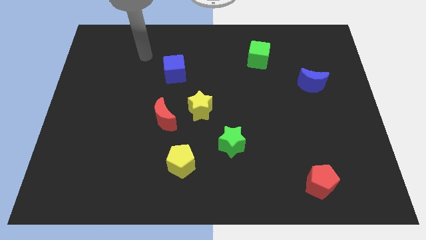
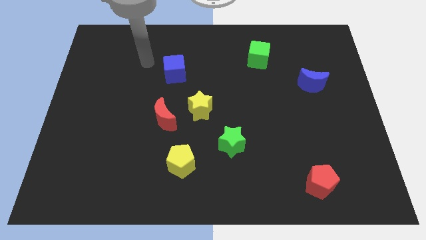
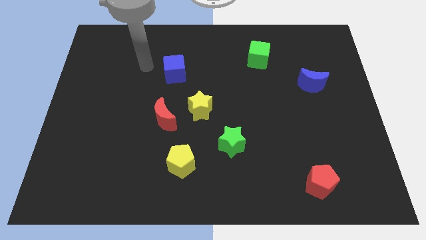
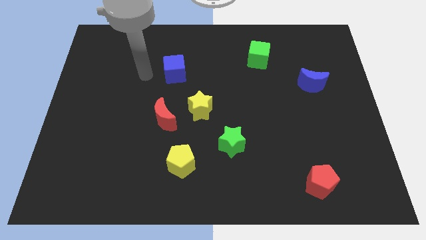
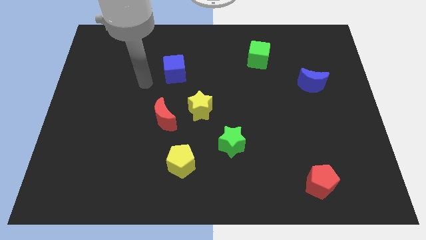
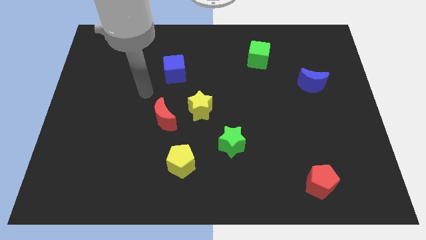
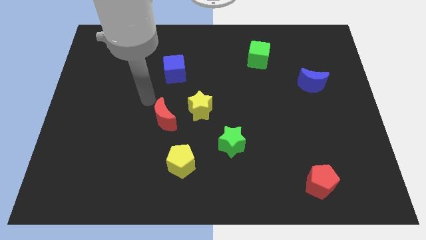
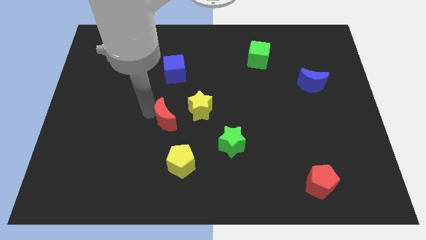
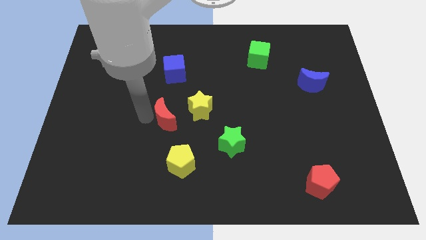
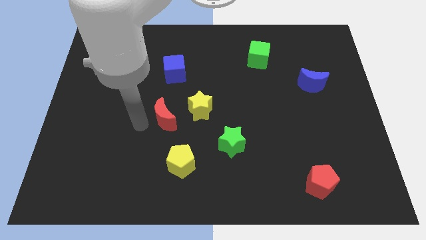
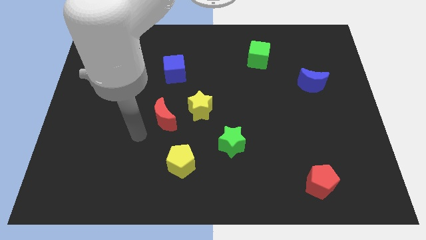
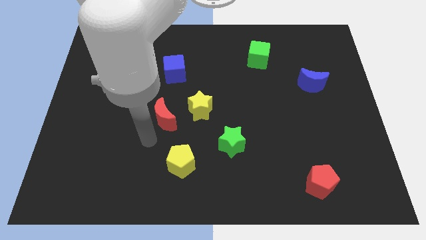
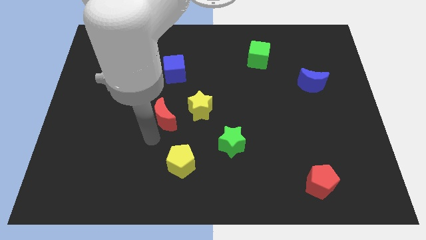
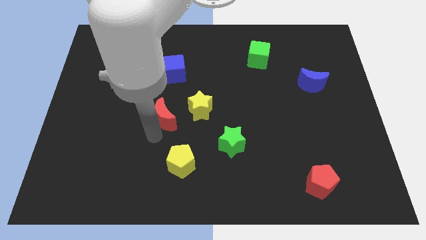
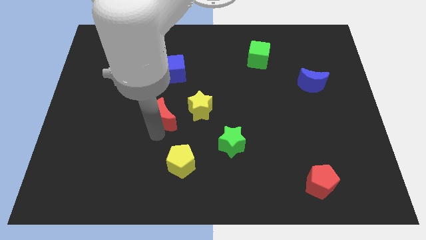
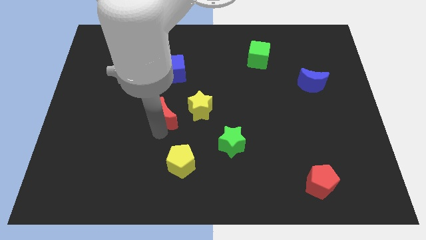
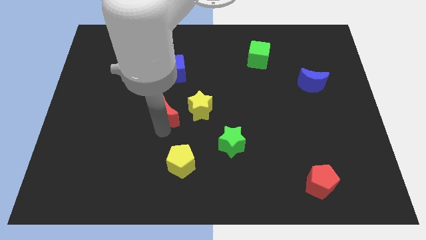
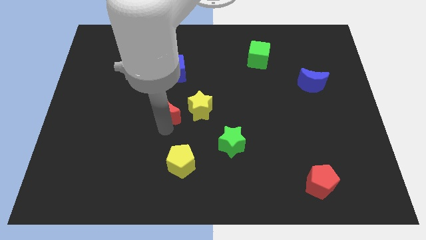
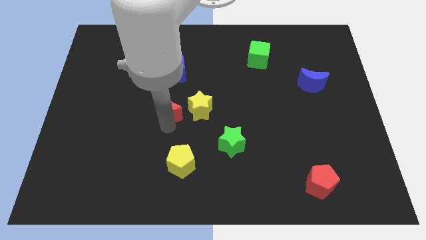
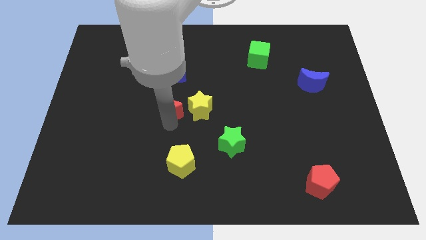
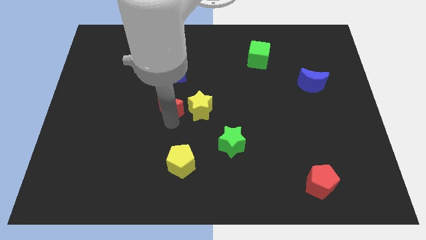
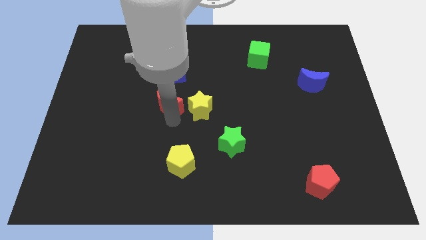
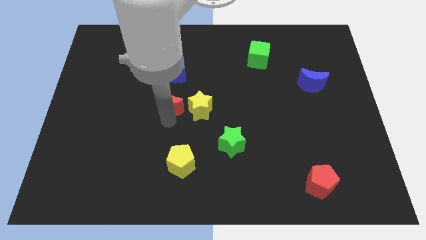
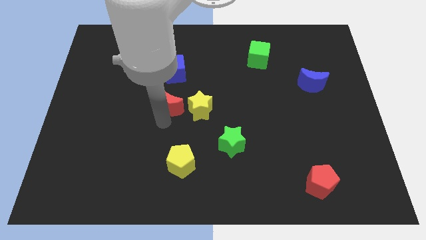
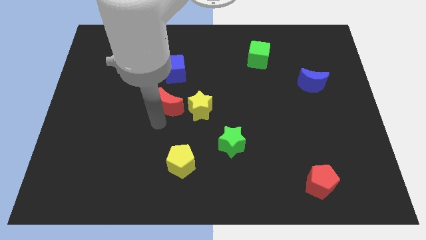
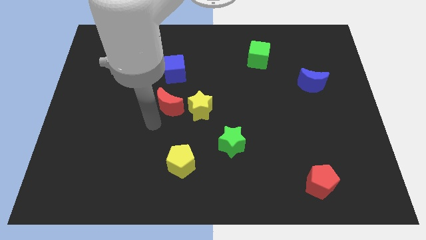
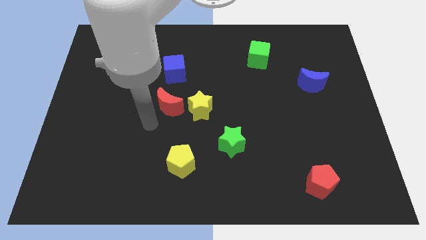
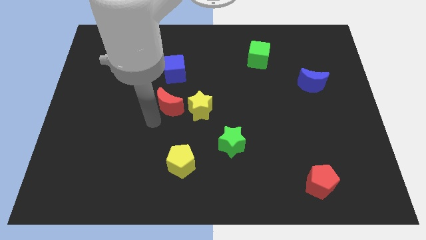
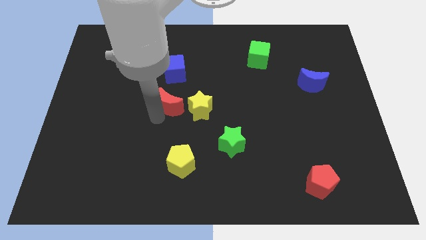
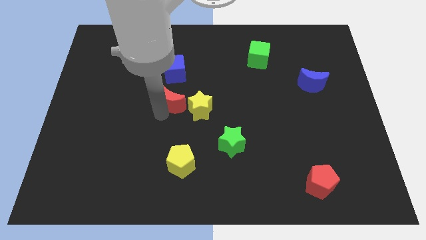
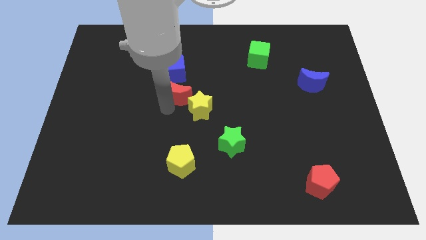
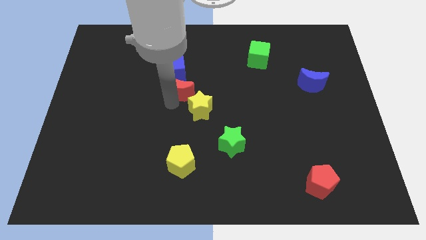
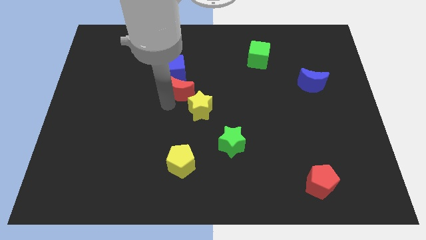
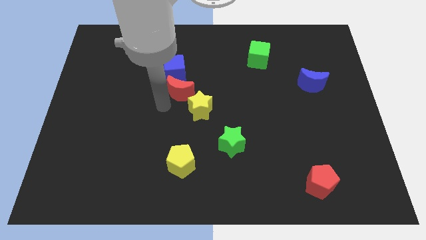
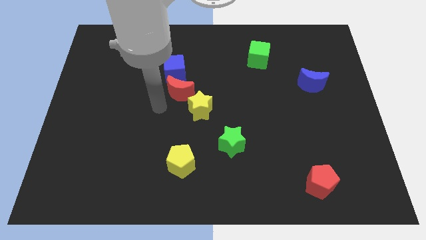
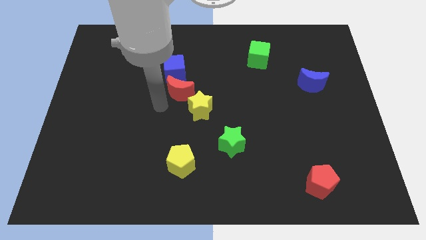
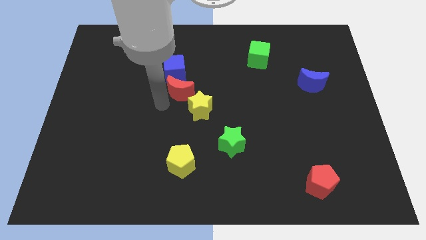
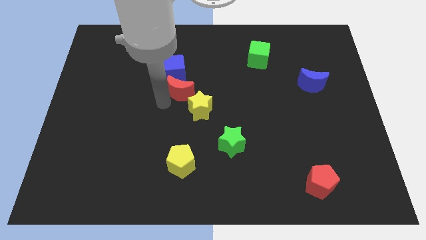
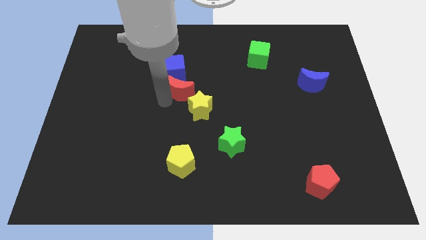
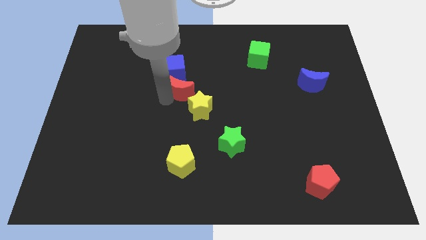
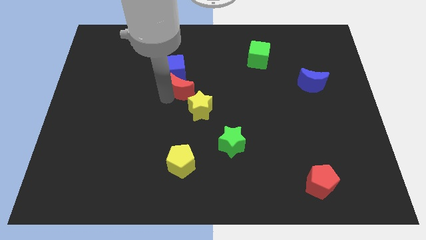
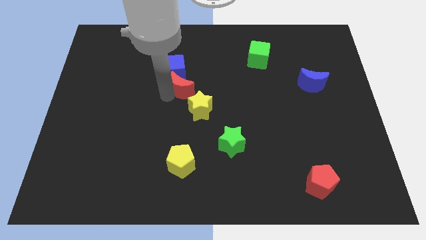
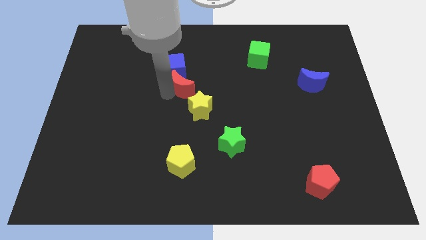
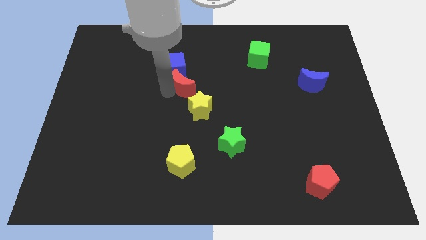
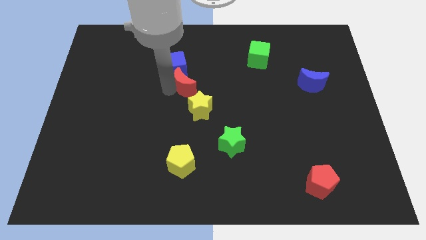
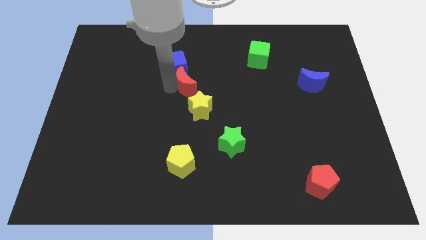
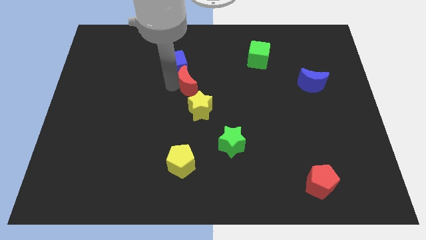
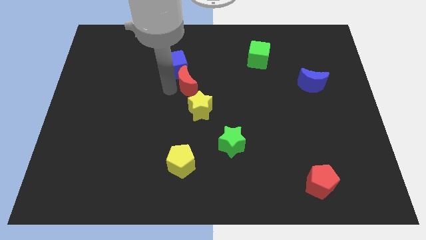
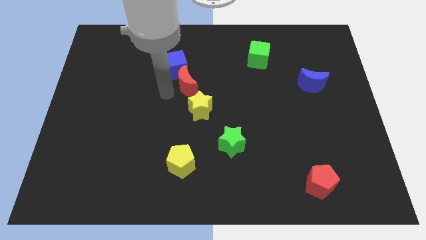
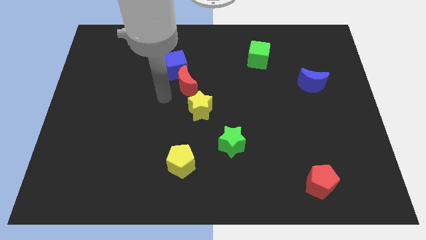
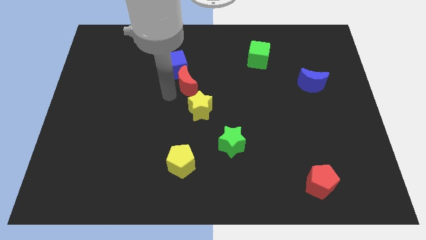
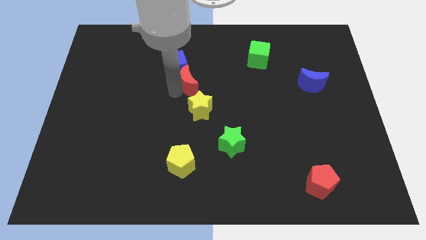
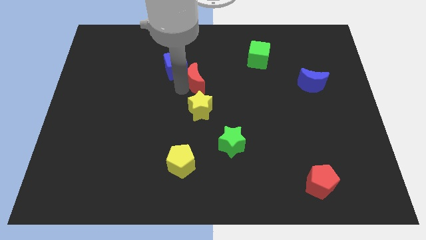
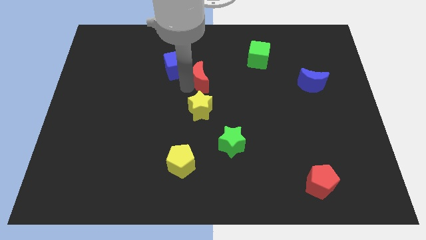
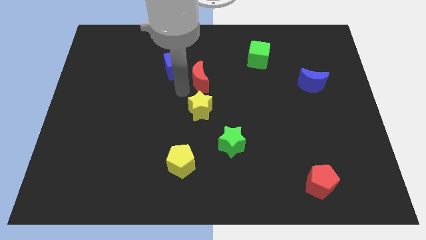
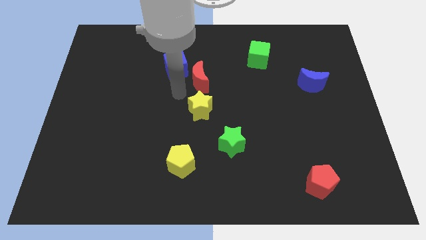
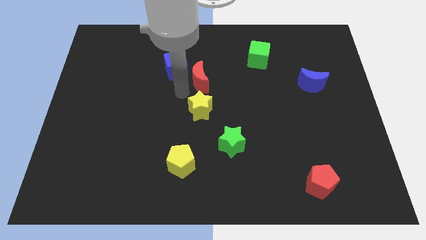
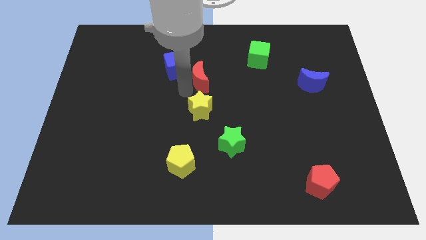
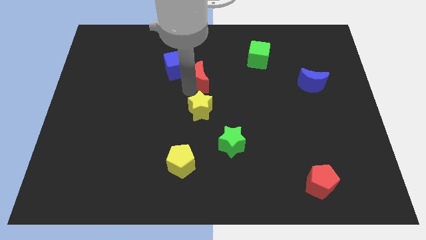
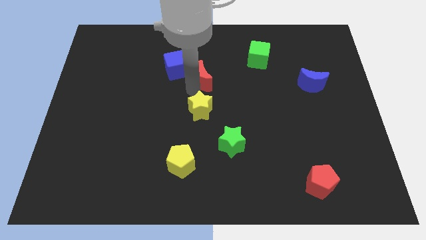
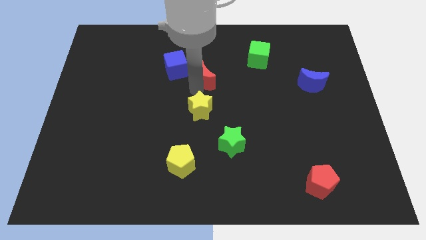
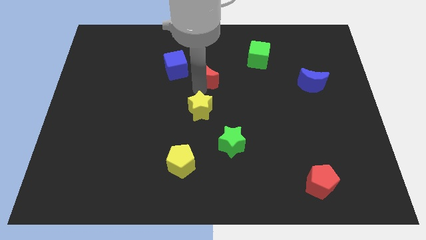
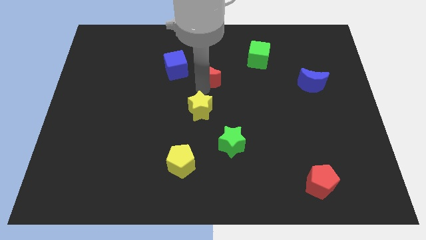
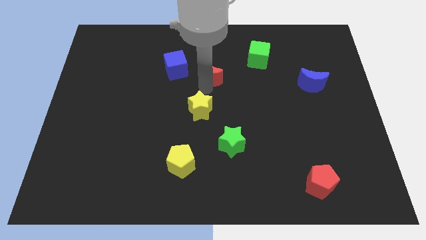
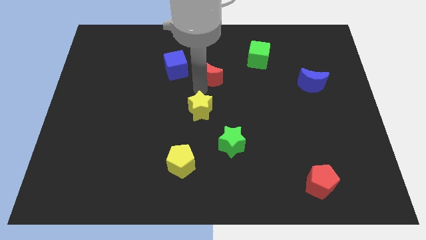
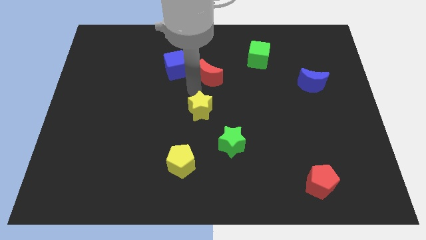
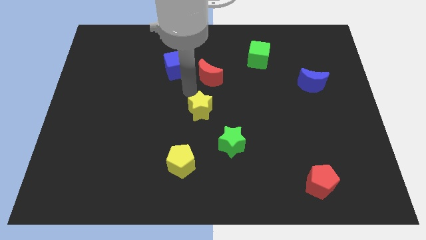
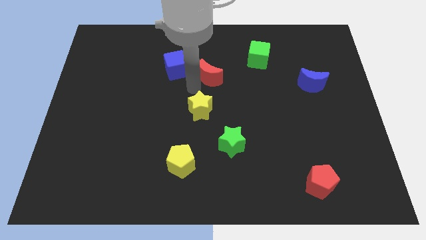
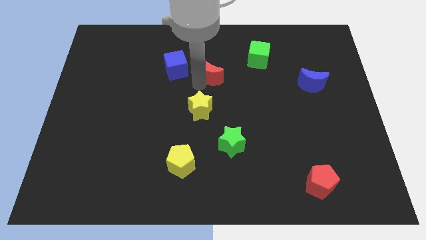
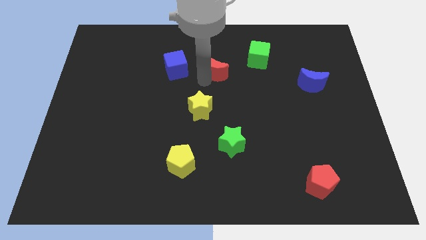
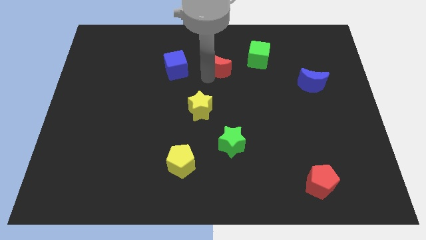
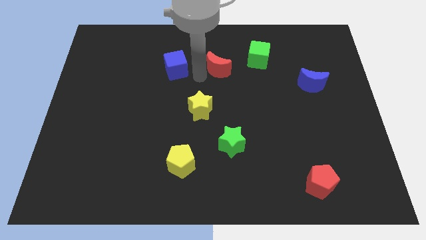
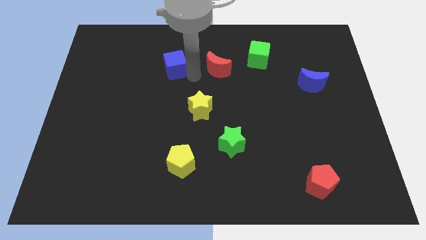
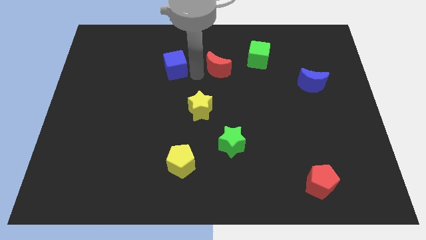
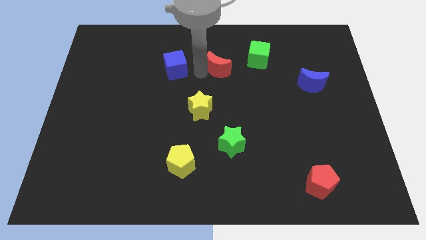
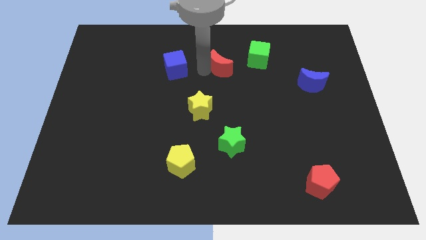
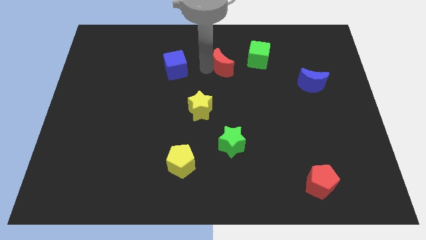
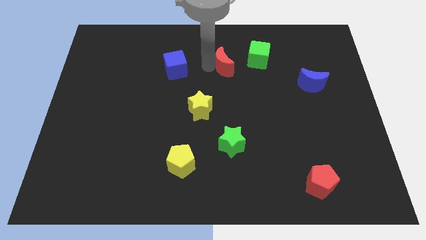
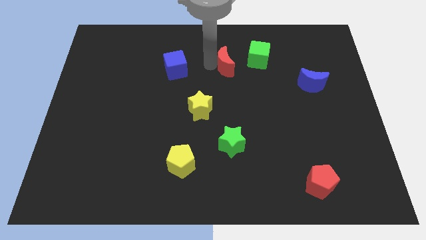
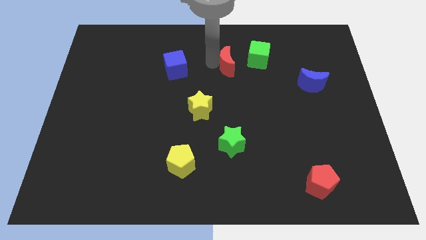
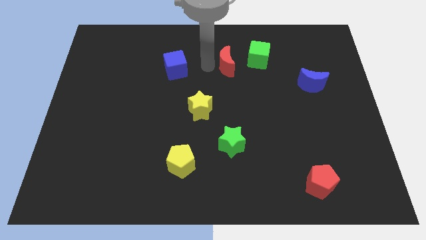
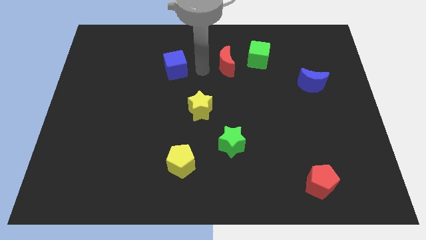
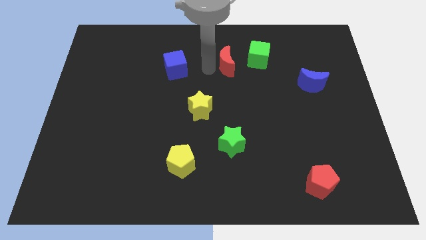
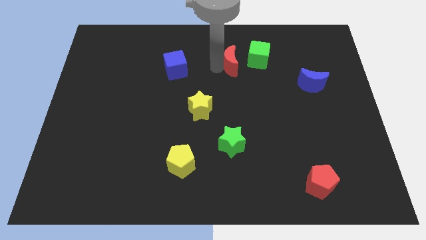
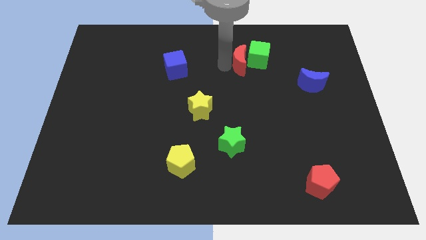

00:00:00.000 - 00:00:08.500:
slide the red moon close to the green cube
